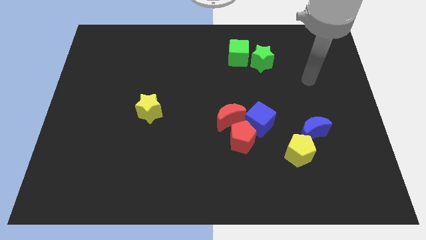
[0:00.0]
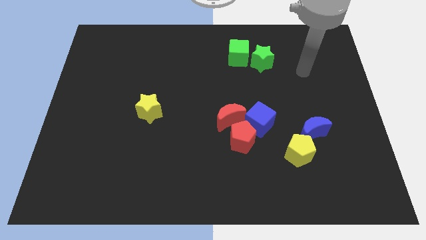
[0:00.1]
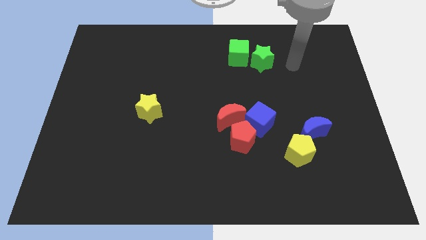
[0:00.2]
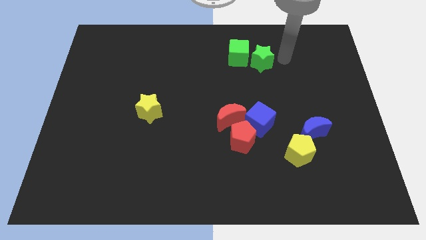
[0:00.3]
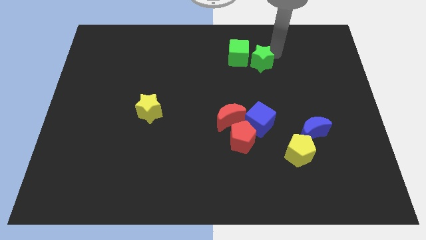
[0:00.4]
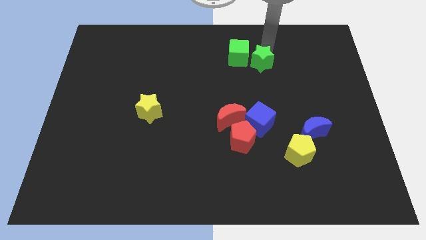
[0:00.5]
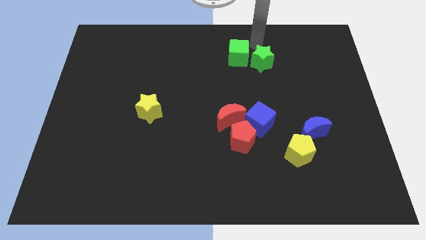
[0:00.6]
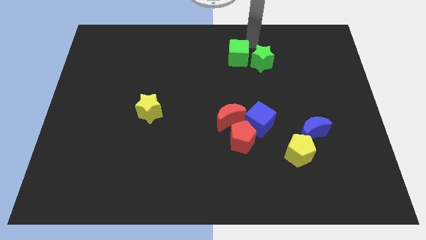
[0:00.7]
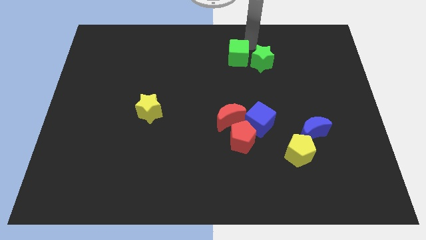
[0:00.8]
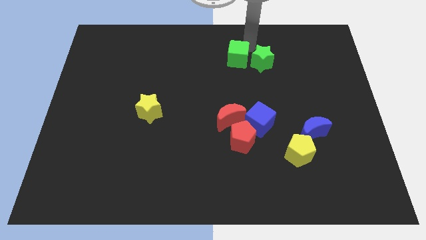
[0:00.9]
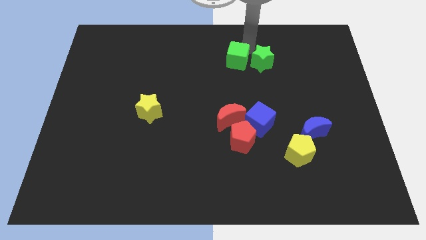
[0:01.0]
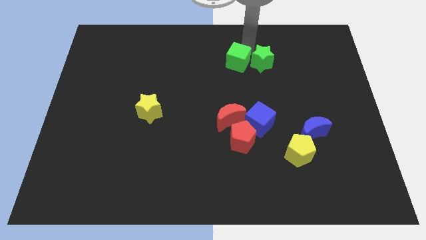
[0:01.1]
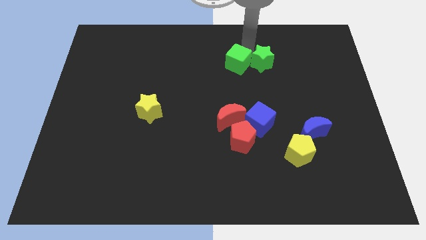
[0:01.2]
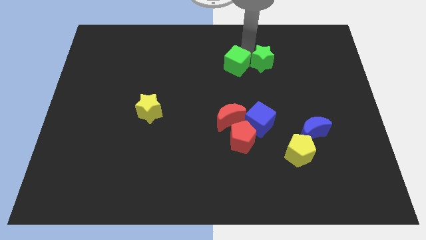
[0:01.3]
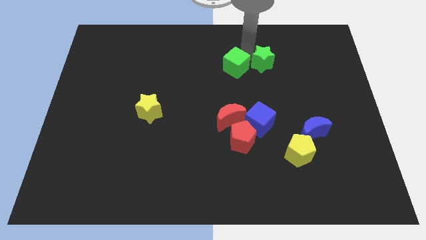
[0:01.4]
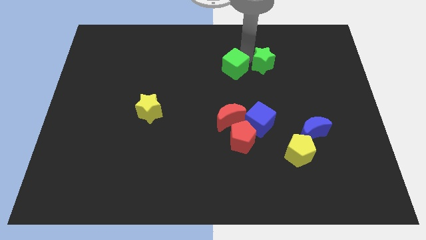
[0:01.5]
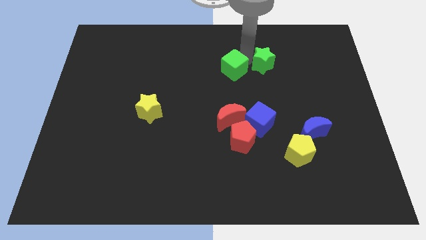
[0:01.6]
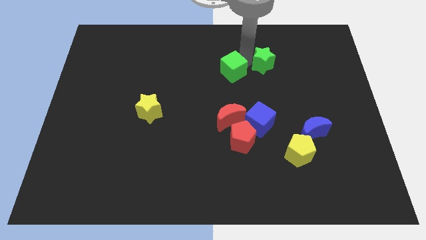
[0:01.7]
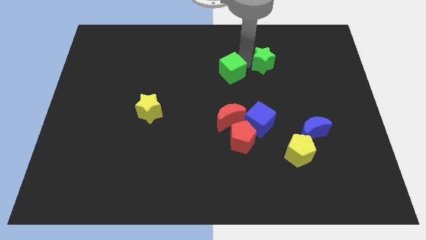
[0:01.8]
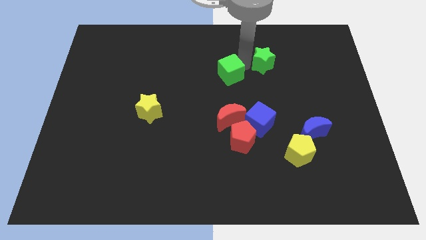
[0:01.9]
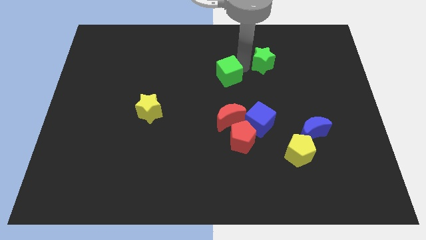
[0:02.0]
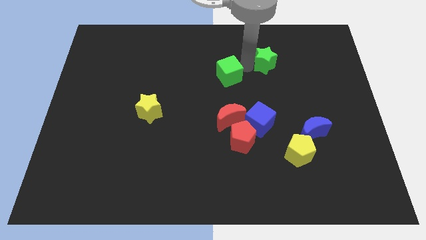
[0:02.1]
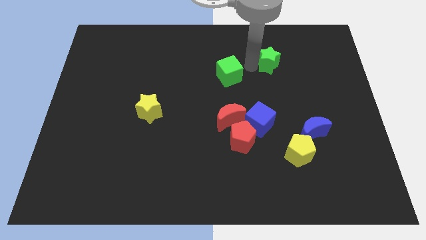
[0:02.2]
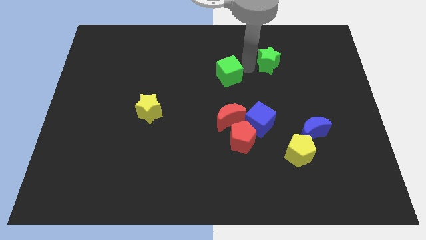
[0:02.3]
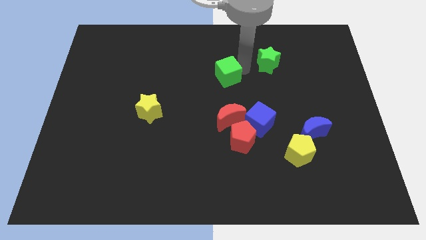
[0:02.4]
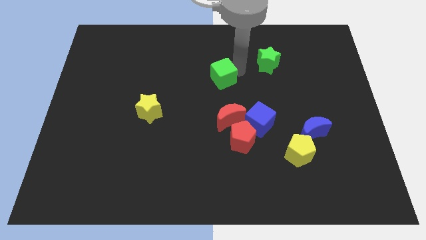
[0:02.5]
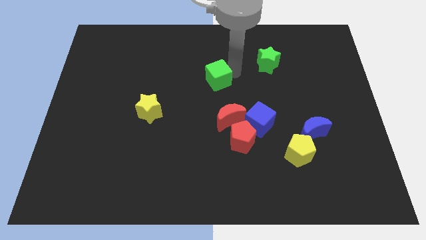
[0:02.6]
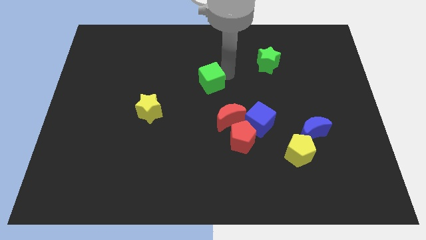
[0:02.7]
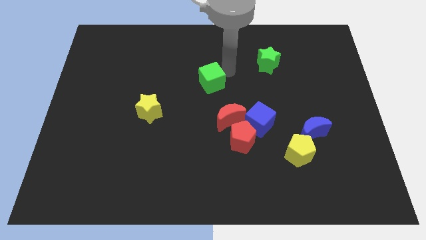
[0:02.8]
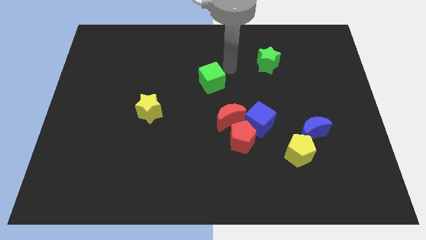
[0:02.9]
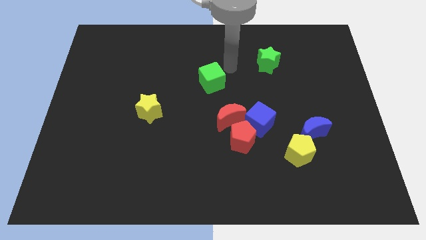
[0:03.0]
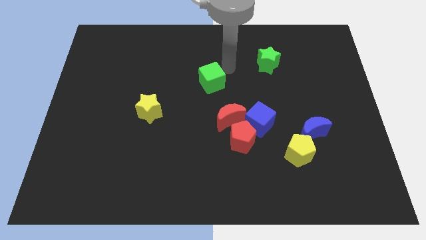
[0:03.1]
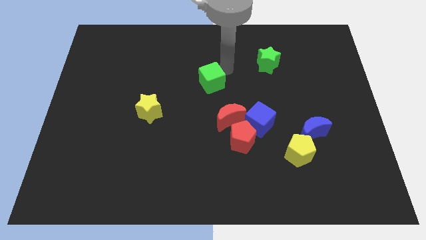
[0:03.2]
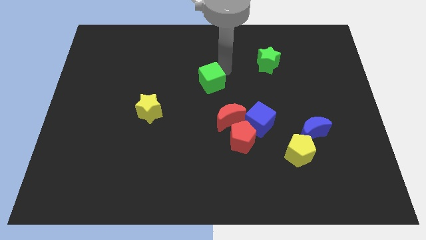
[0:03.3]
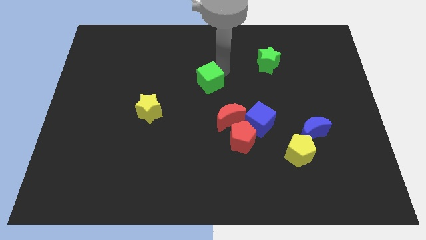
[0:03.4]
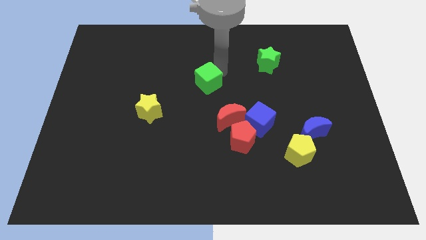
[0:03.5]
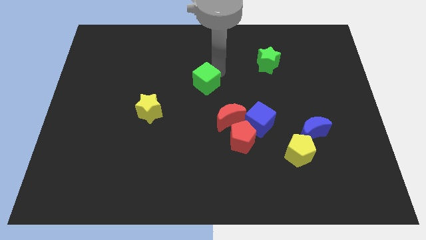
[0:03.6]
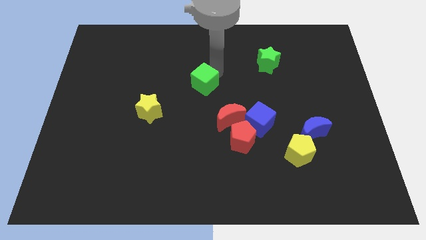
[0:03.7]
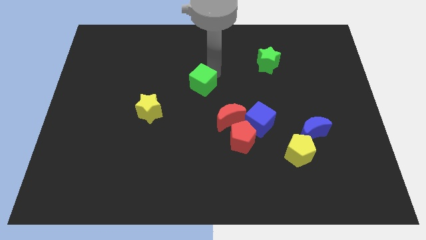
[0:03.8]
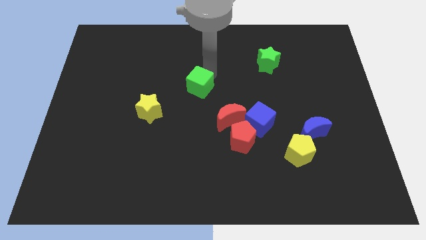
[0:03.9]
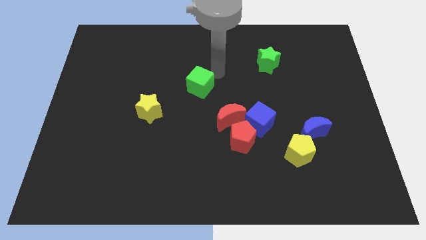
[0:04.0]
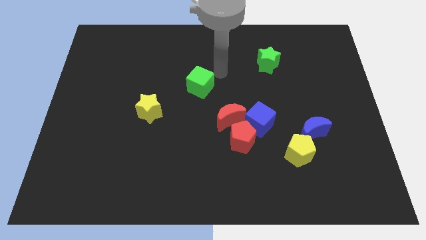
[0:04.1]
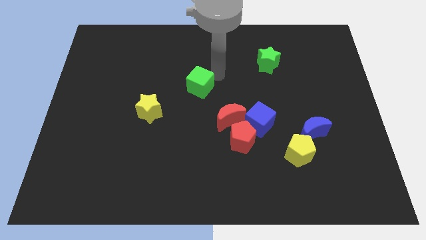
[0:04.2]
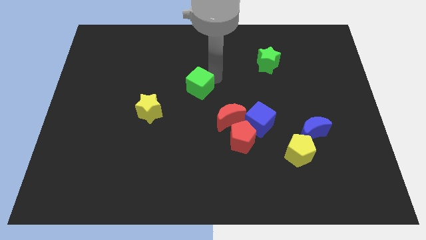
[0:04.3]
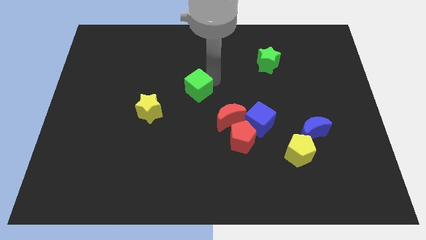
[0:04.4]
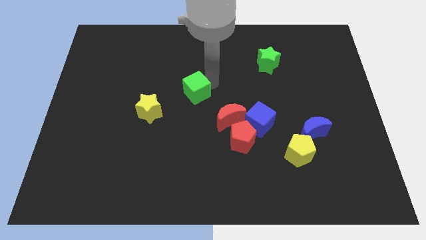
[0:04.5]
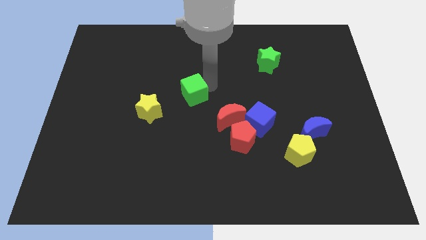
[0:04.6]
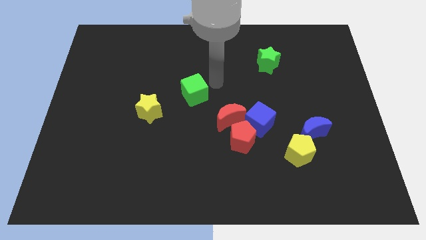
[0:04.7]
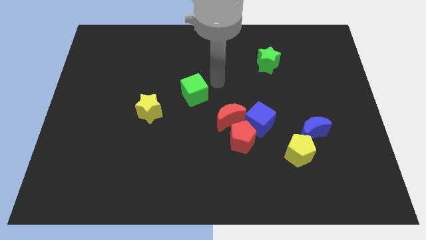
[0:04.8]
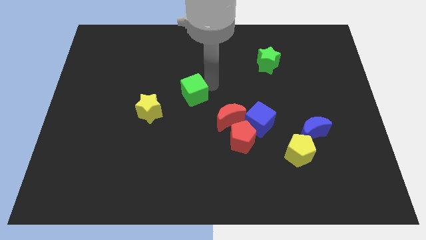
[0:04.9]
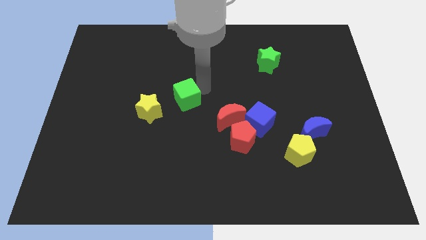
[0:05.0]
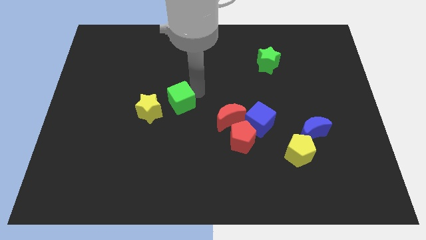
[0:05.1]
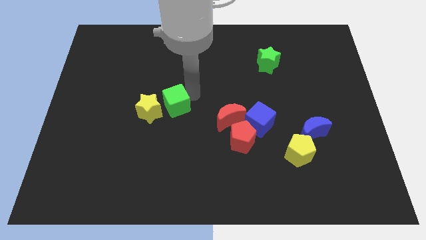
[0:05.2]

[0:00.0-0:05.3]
move the green cube towards the yellow star

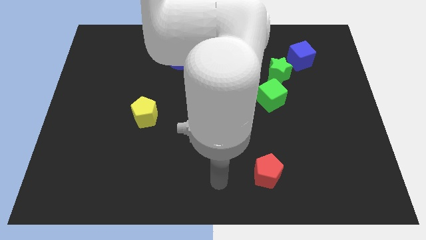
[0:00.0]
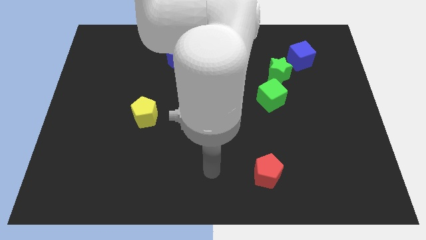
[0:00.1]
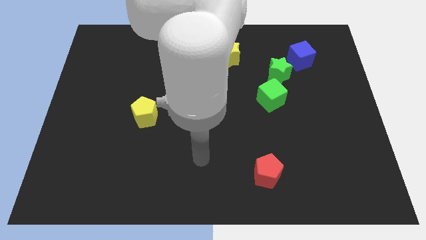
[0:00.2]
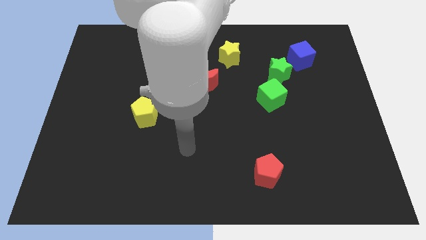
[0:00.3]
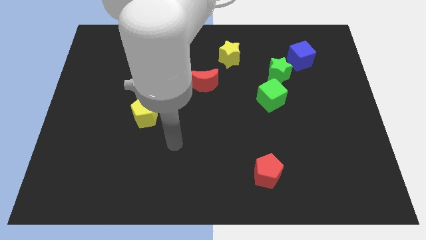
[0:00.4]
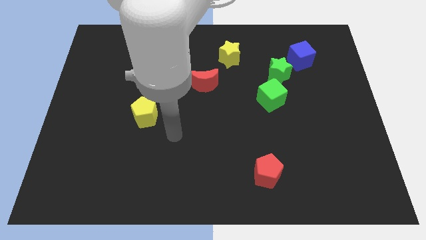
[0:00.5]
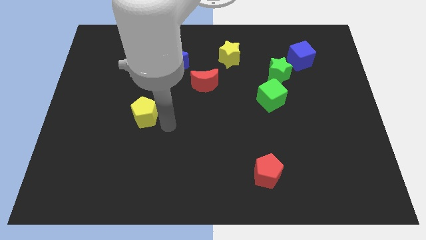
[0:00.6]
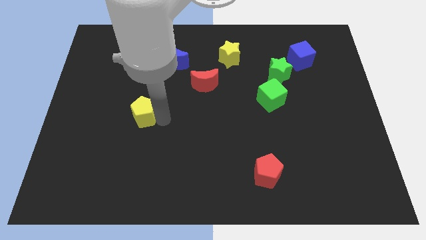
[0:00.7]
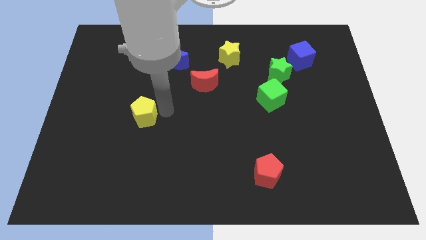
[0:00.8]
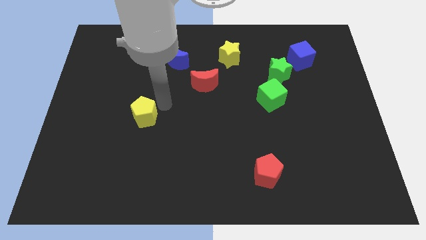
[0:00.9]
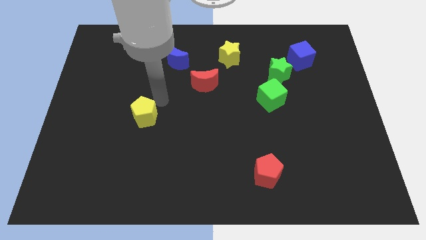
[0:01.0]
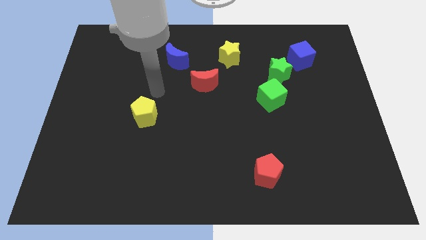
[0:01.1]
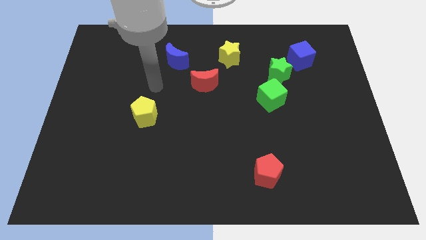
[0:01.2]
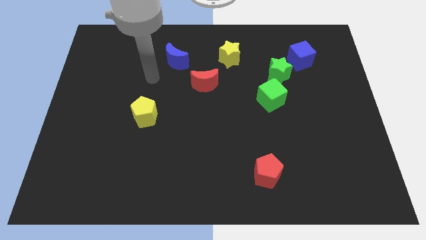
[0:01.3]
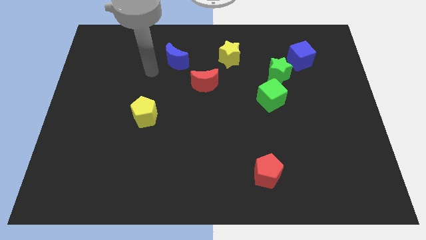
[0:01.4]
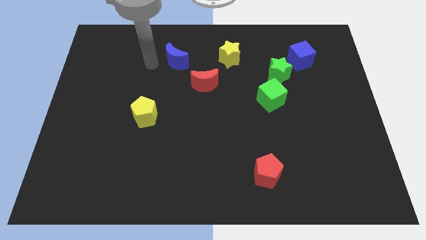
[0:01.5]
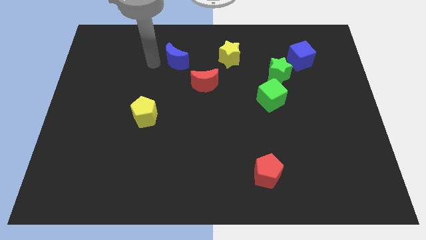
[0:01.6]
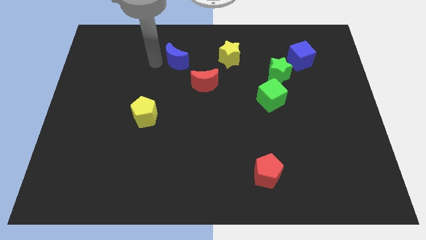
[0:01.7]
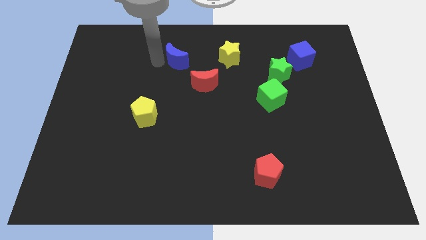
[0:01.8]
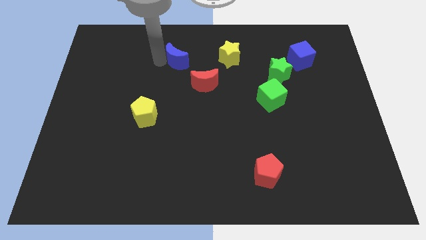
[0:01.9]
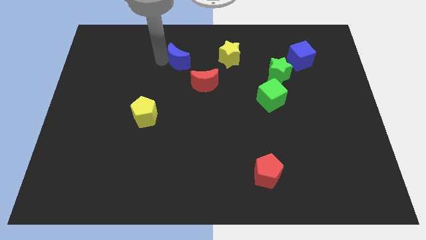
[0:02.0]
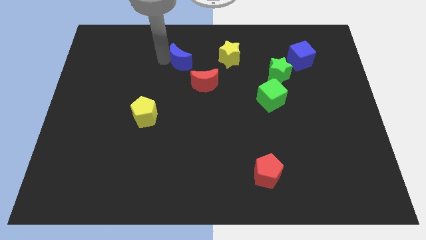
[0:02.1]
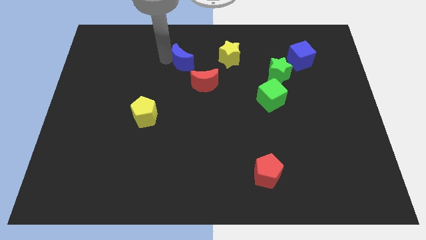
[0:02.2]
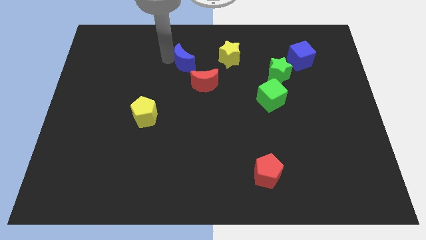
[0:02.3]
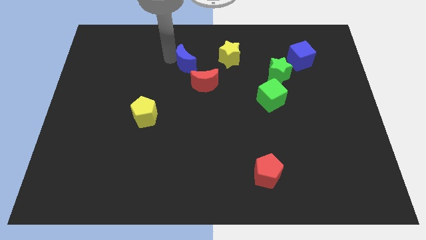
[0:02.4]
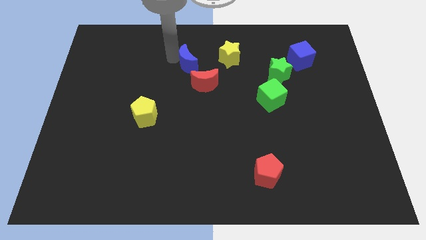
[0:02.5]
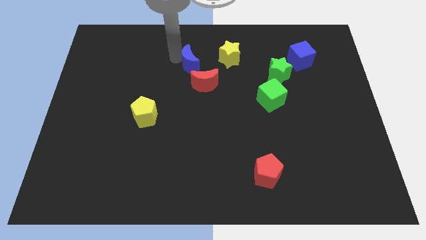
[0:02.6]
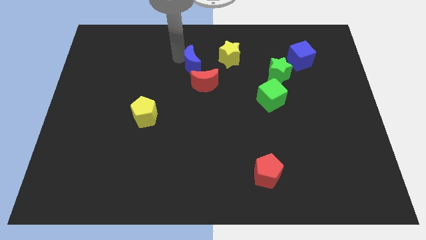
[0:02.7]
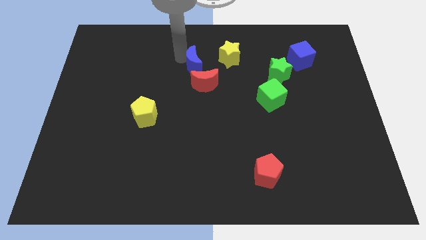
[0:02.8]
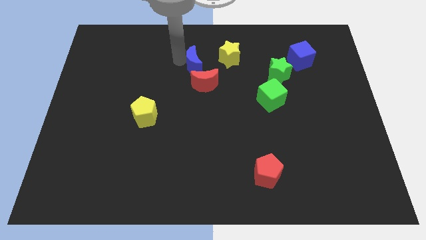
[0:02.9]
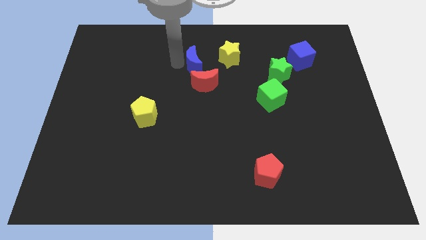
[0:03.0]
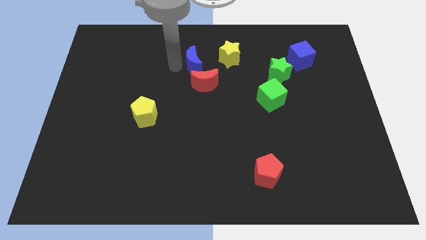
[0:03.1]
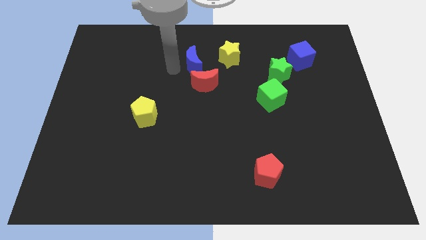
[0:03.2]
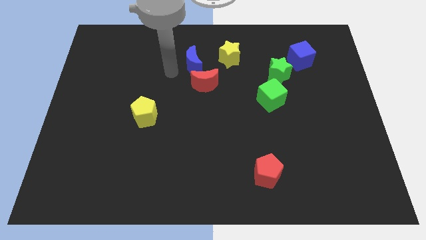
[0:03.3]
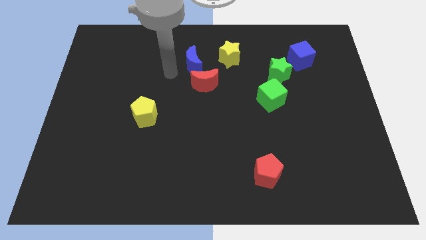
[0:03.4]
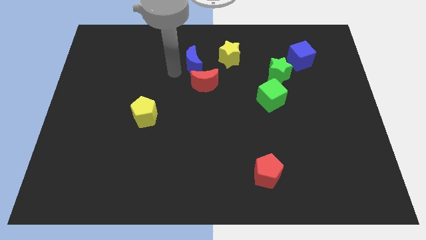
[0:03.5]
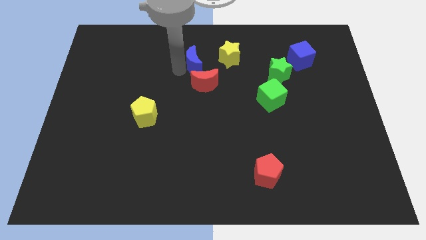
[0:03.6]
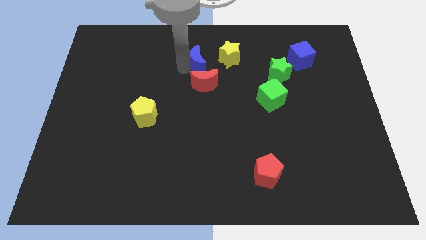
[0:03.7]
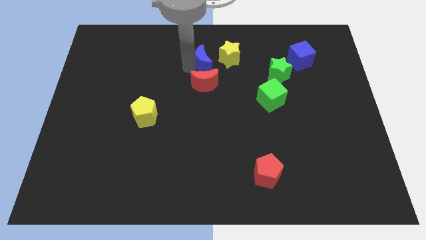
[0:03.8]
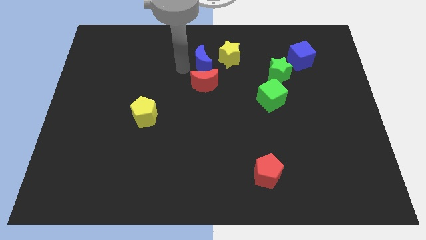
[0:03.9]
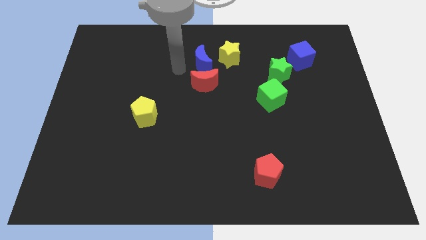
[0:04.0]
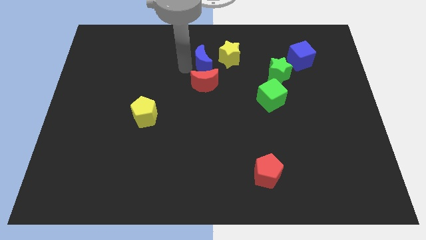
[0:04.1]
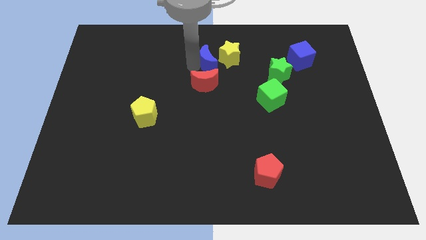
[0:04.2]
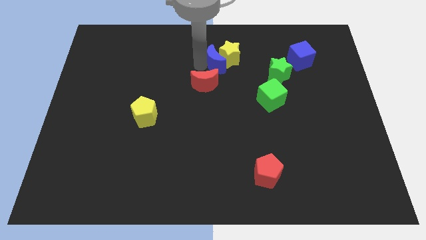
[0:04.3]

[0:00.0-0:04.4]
move the blue moon to the yellow star
